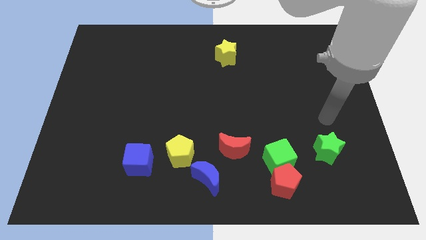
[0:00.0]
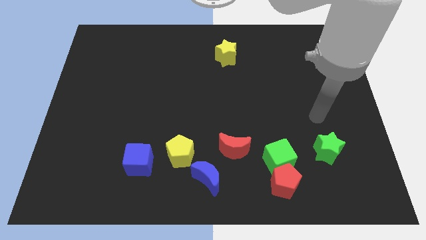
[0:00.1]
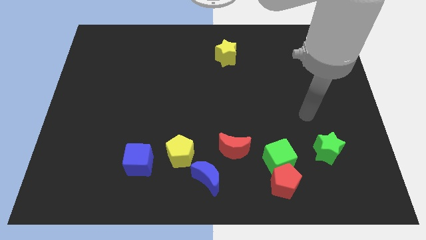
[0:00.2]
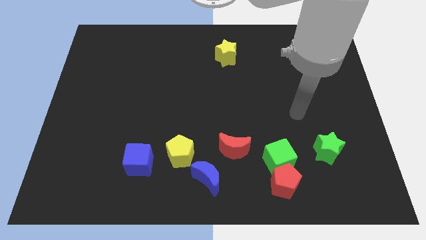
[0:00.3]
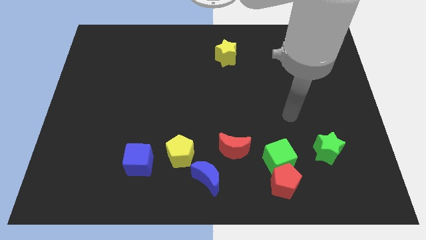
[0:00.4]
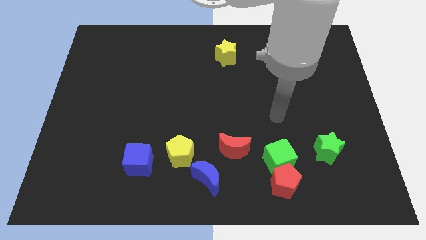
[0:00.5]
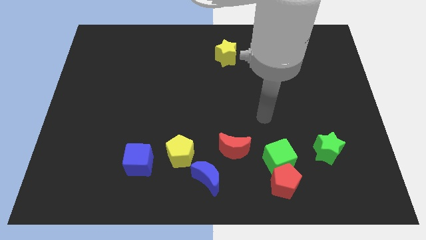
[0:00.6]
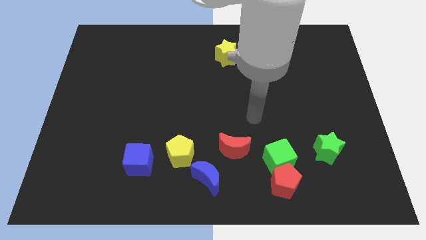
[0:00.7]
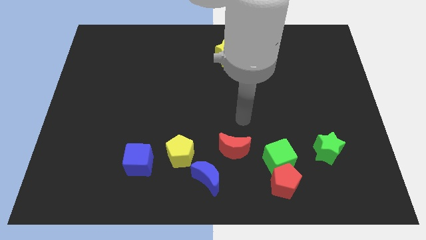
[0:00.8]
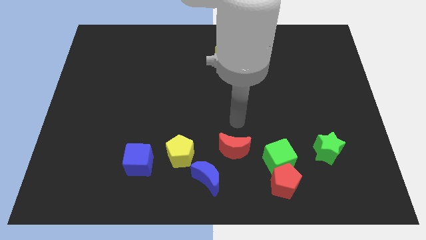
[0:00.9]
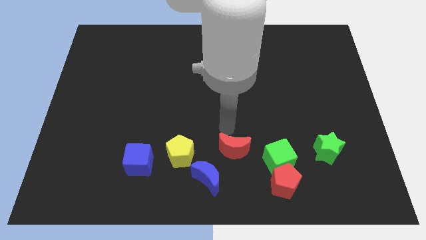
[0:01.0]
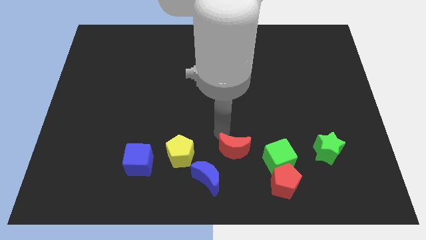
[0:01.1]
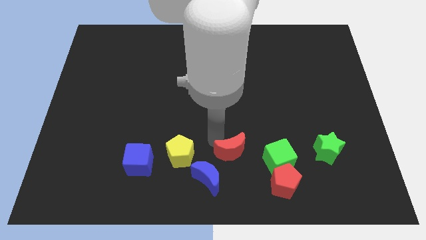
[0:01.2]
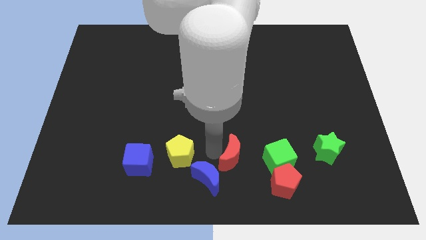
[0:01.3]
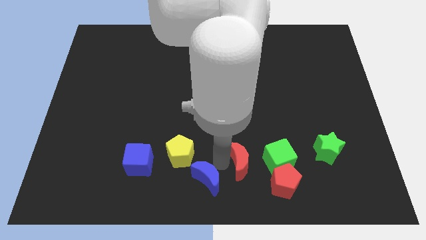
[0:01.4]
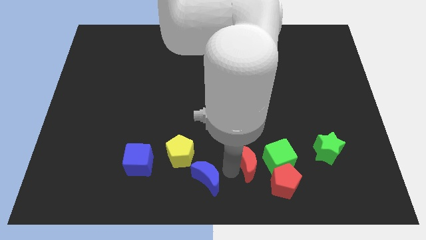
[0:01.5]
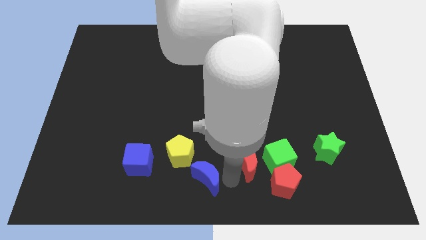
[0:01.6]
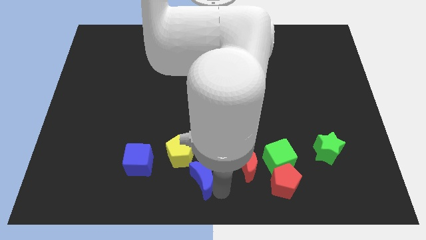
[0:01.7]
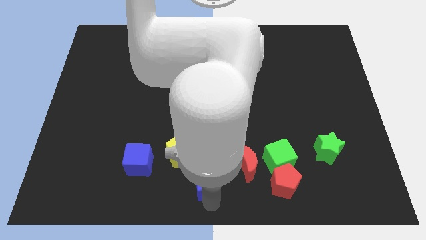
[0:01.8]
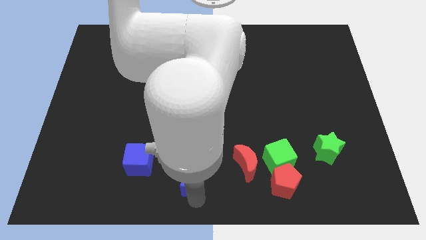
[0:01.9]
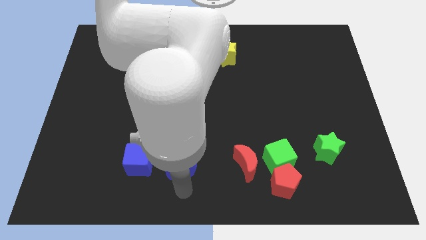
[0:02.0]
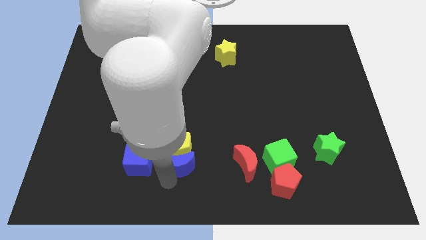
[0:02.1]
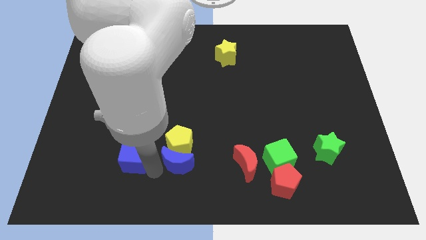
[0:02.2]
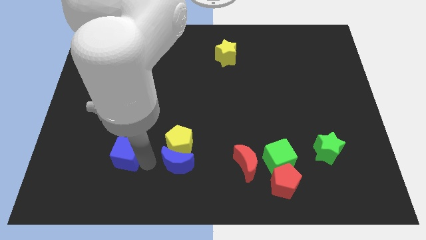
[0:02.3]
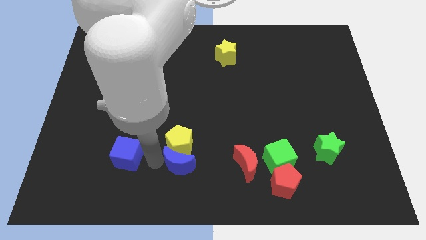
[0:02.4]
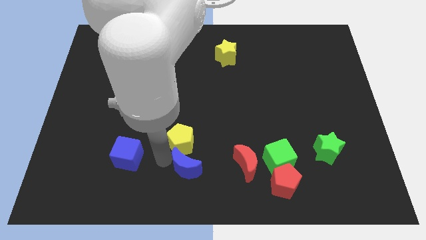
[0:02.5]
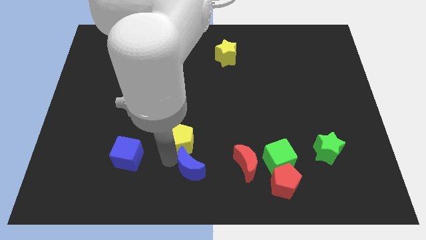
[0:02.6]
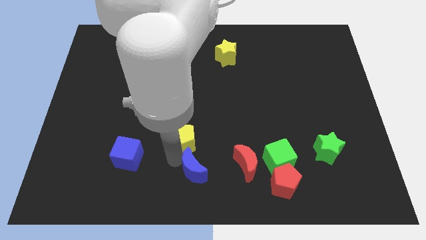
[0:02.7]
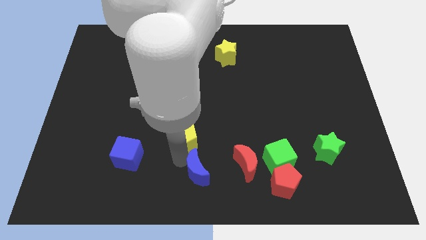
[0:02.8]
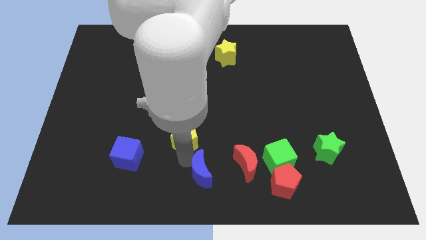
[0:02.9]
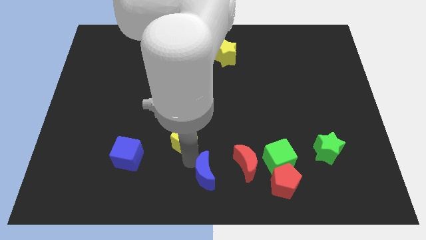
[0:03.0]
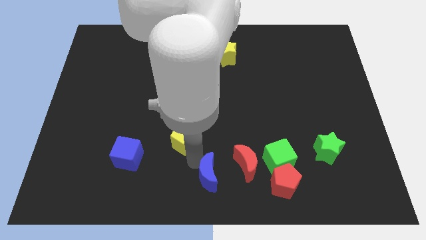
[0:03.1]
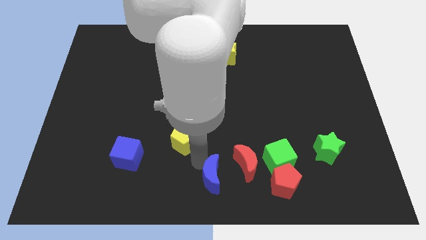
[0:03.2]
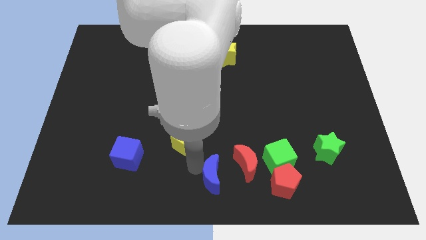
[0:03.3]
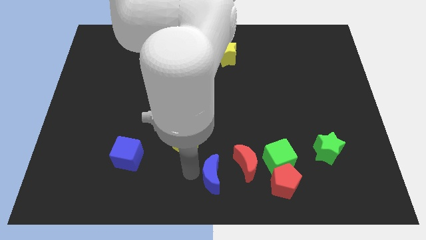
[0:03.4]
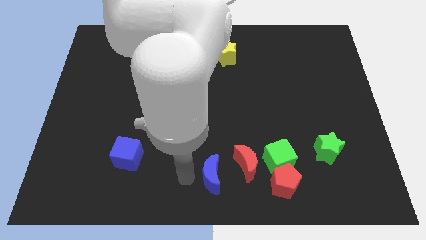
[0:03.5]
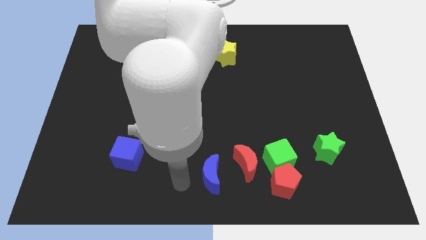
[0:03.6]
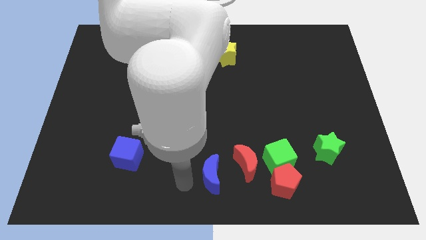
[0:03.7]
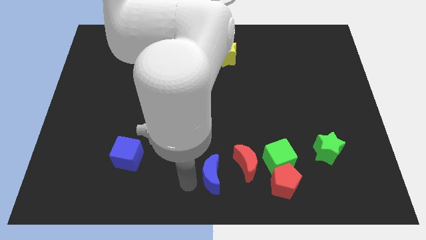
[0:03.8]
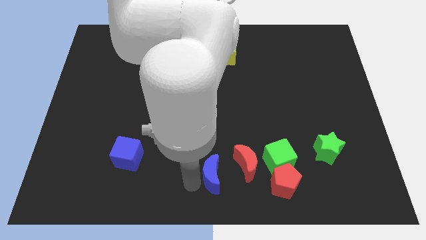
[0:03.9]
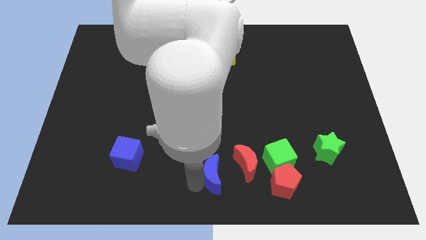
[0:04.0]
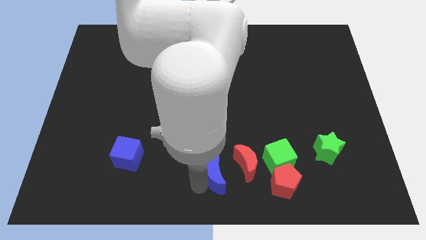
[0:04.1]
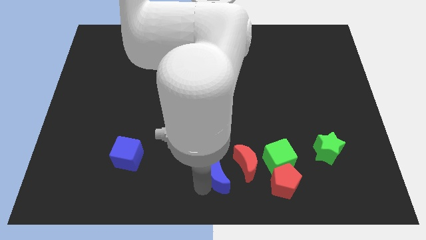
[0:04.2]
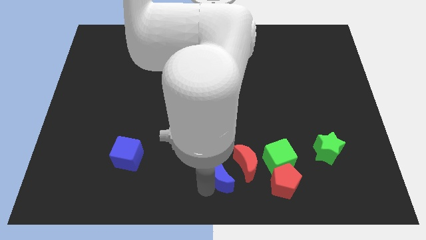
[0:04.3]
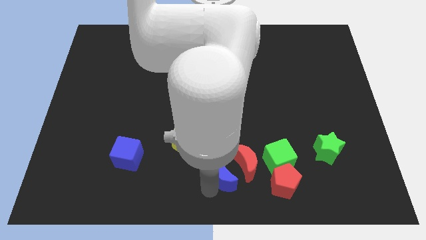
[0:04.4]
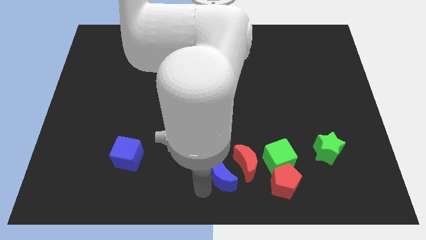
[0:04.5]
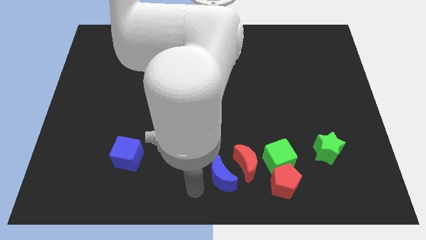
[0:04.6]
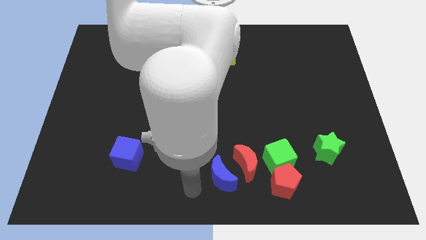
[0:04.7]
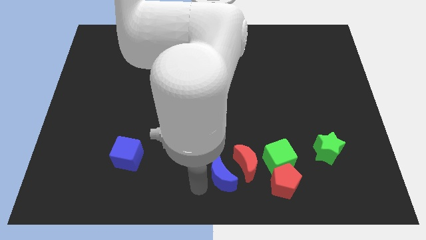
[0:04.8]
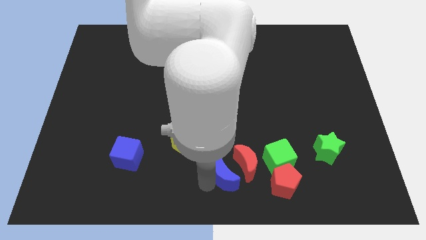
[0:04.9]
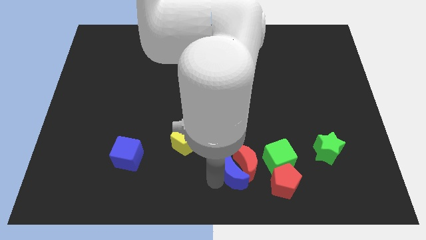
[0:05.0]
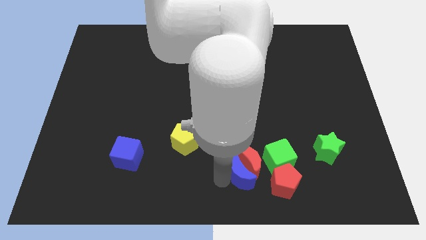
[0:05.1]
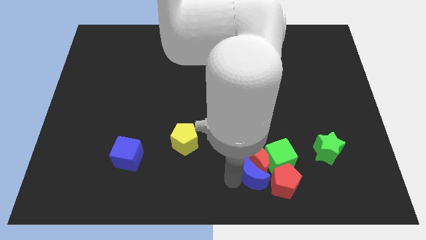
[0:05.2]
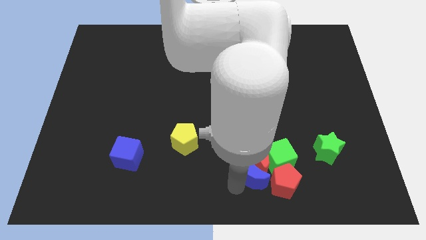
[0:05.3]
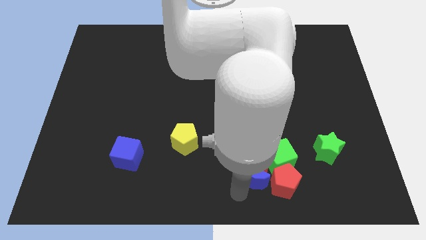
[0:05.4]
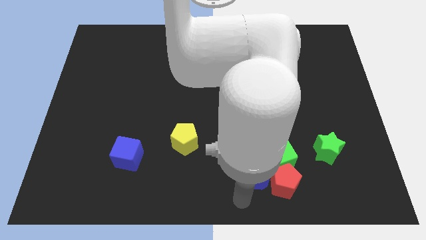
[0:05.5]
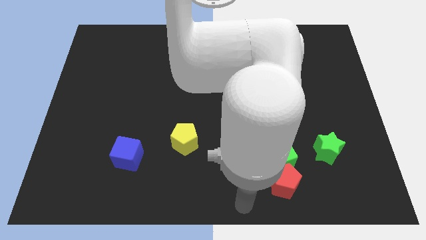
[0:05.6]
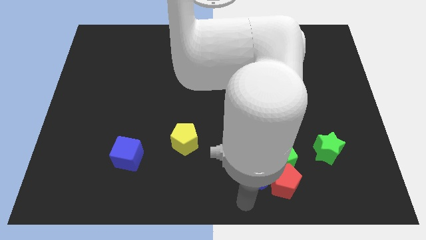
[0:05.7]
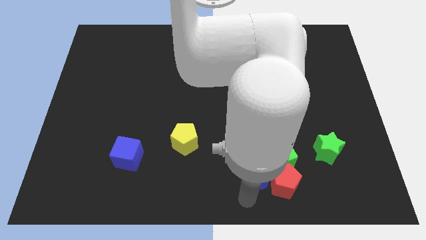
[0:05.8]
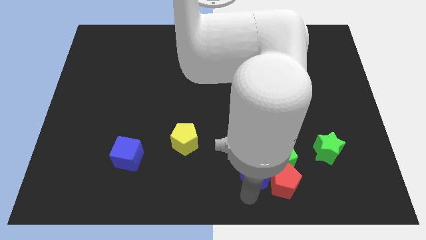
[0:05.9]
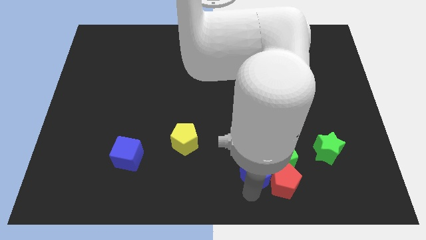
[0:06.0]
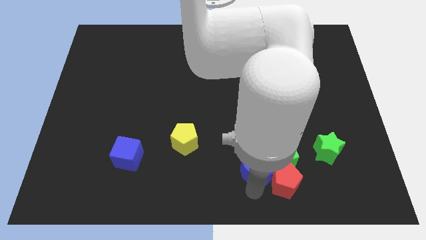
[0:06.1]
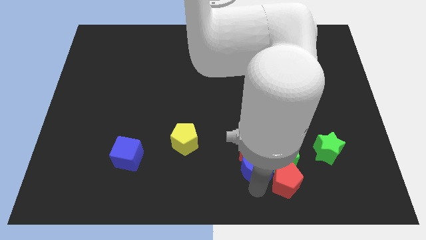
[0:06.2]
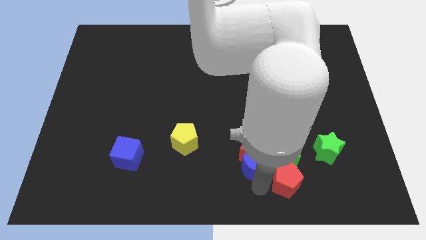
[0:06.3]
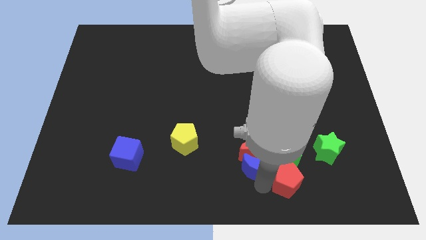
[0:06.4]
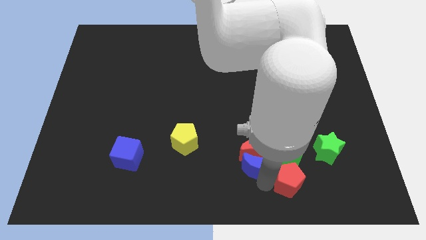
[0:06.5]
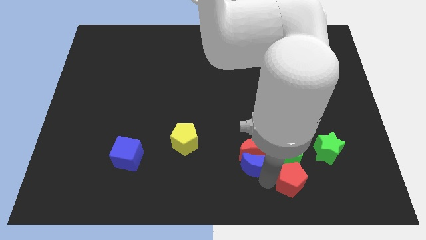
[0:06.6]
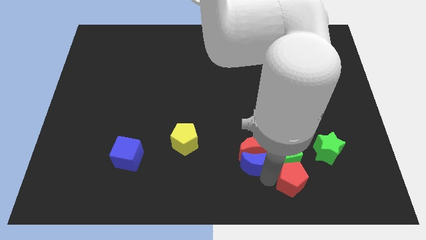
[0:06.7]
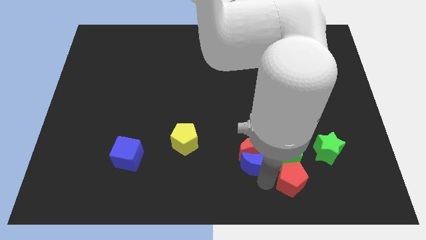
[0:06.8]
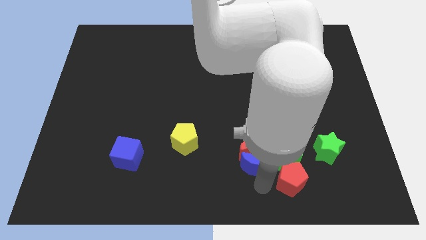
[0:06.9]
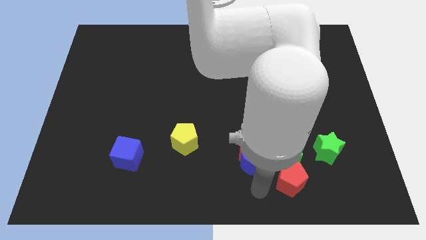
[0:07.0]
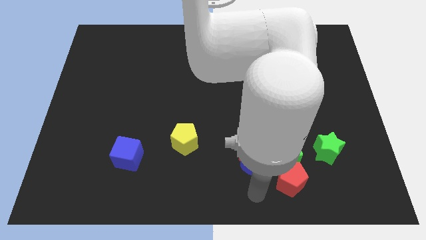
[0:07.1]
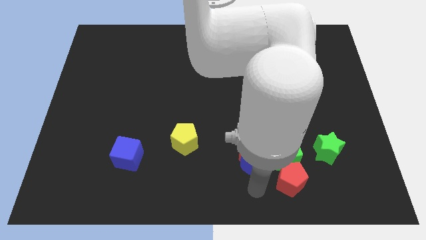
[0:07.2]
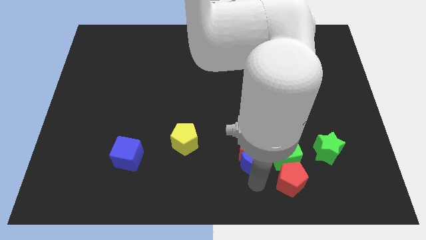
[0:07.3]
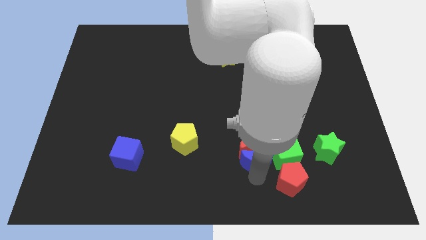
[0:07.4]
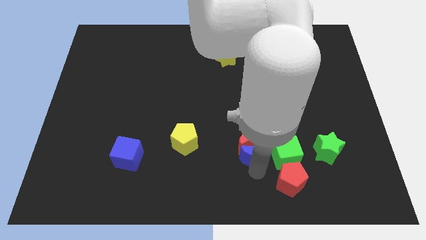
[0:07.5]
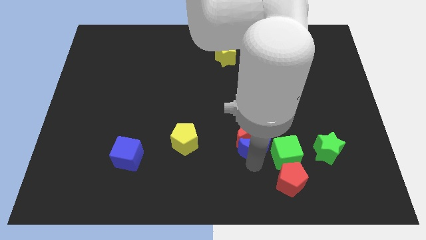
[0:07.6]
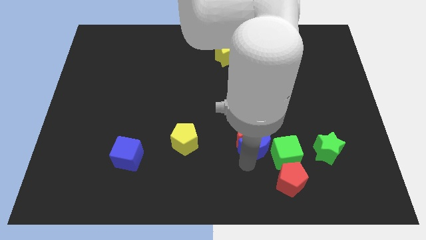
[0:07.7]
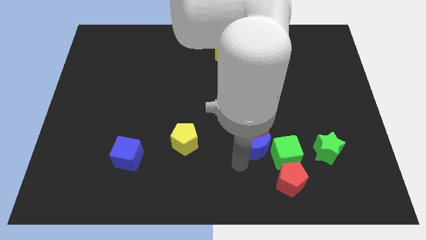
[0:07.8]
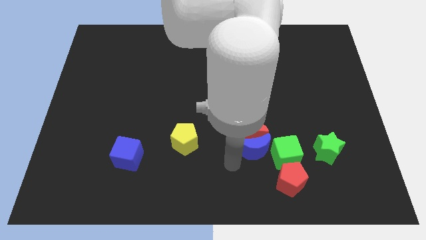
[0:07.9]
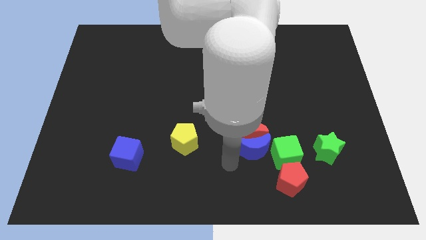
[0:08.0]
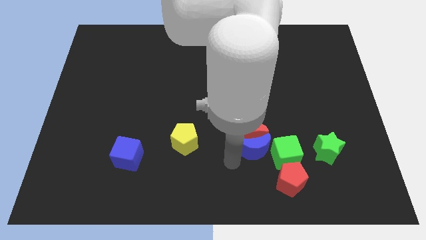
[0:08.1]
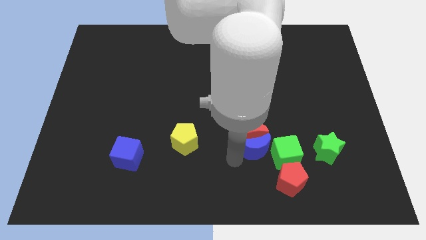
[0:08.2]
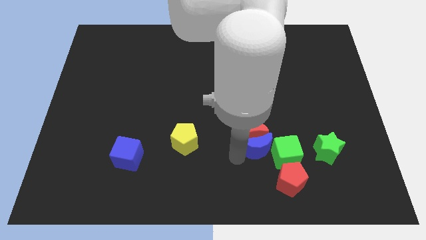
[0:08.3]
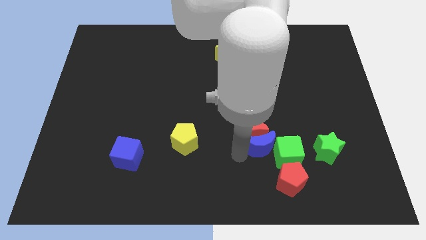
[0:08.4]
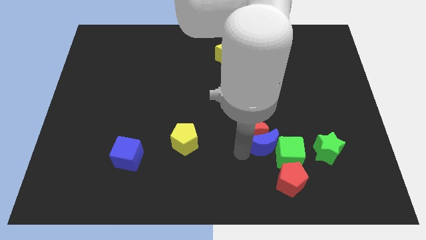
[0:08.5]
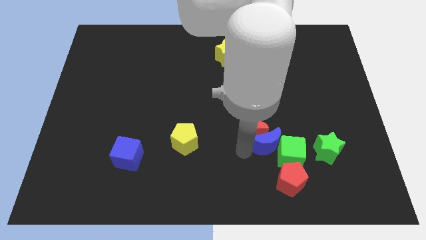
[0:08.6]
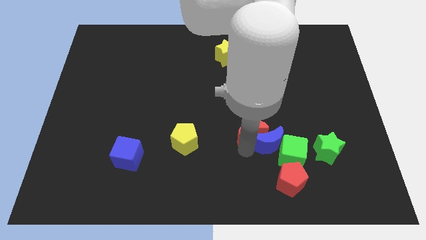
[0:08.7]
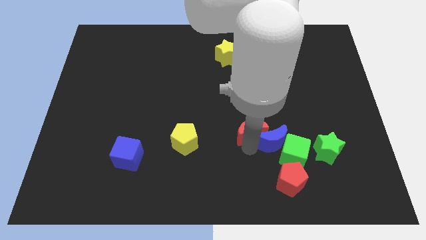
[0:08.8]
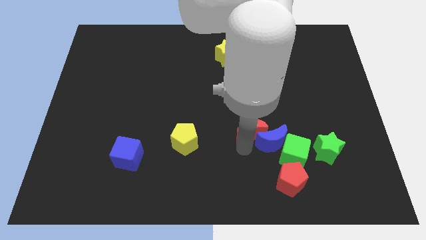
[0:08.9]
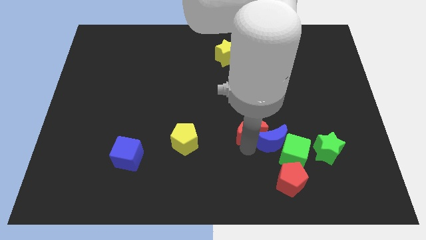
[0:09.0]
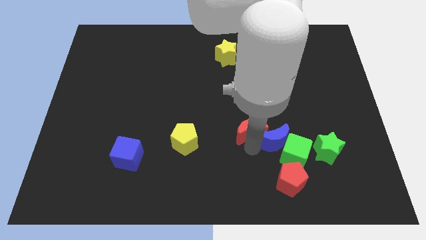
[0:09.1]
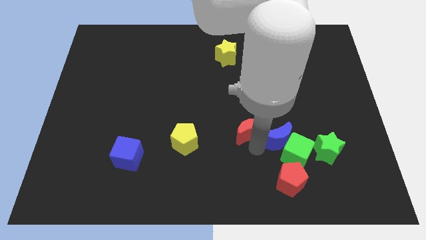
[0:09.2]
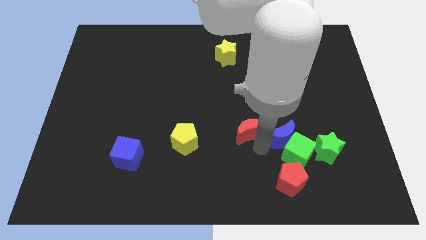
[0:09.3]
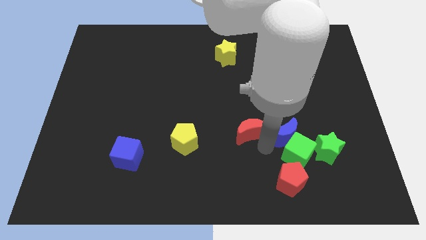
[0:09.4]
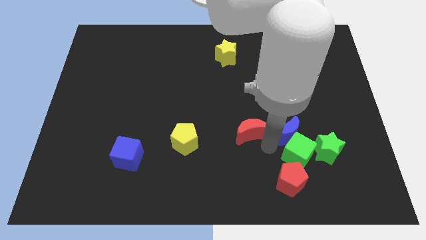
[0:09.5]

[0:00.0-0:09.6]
push the blue moon to the top right side of the green cube
